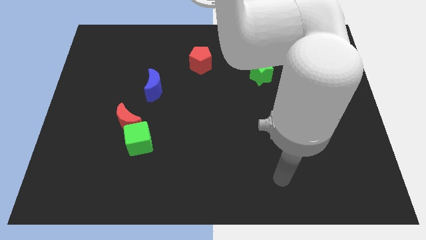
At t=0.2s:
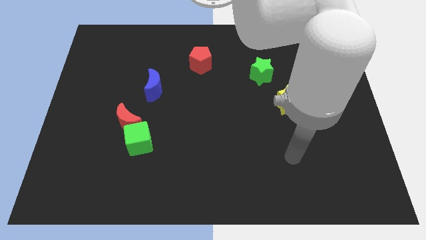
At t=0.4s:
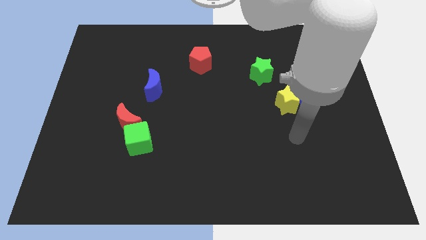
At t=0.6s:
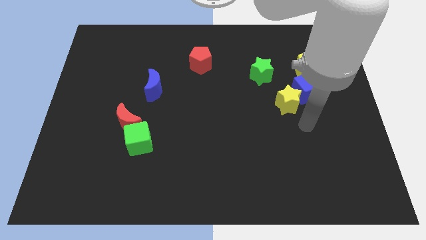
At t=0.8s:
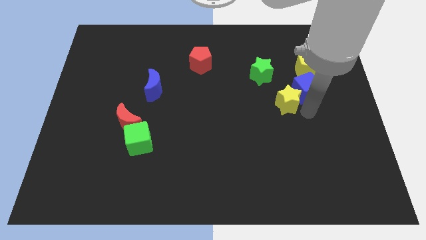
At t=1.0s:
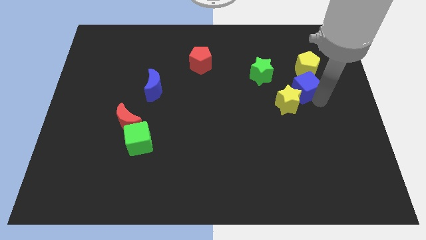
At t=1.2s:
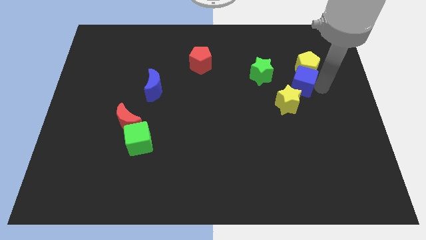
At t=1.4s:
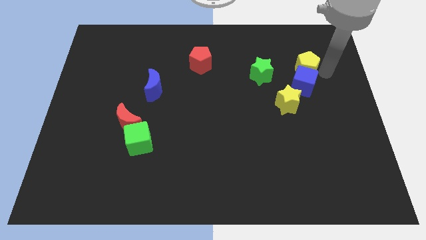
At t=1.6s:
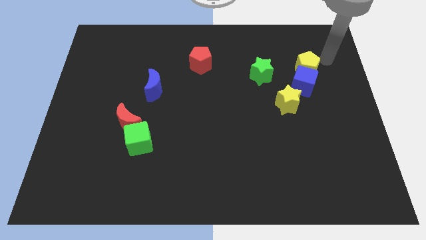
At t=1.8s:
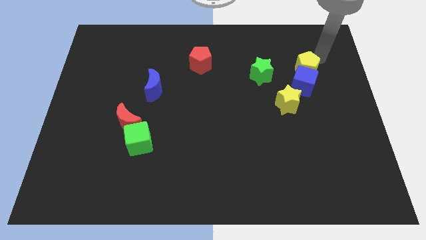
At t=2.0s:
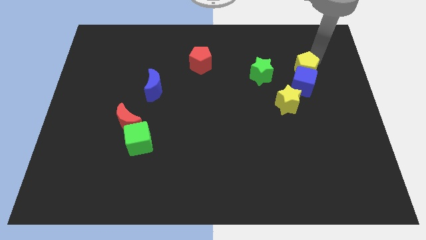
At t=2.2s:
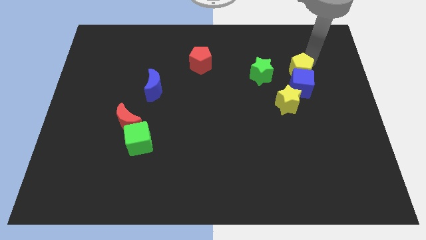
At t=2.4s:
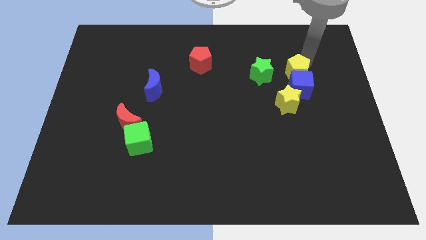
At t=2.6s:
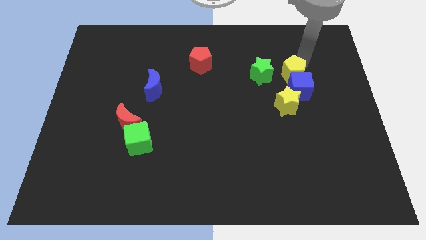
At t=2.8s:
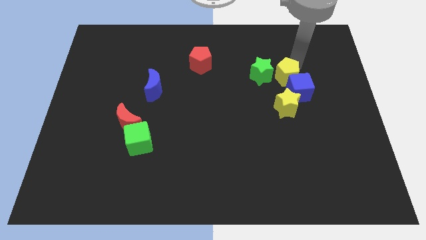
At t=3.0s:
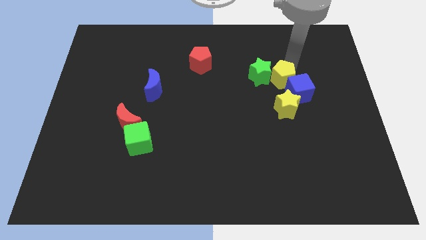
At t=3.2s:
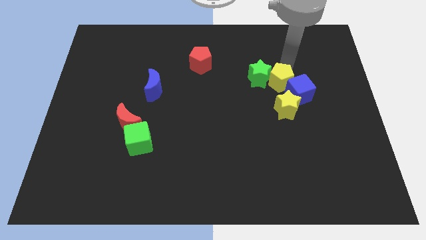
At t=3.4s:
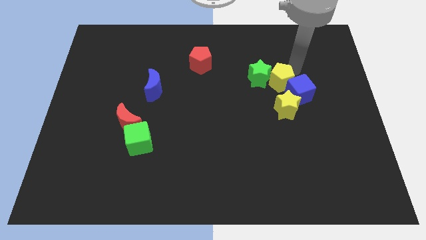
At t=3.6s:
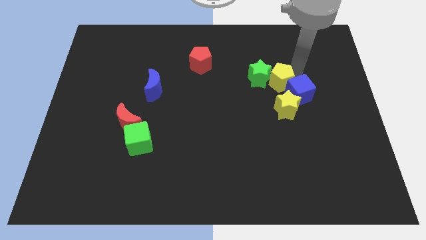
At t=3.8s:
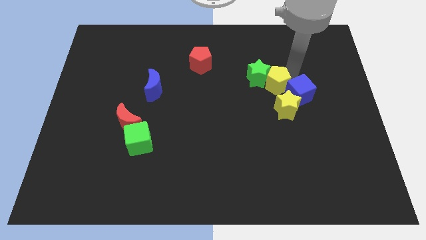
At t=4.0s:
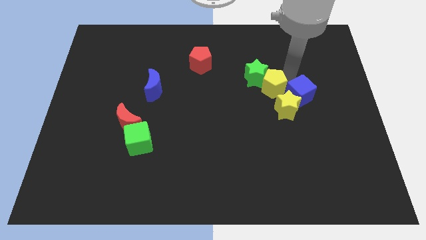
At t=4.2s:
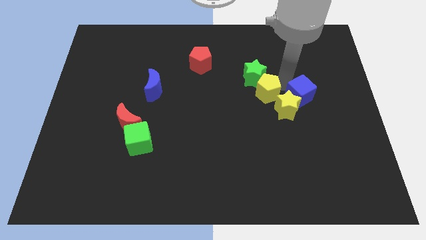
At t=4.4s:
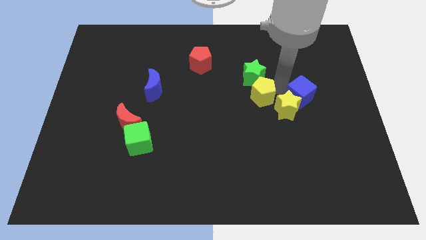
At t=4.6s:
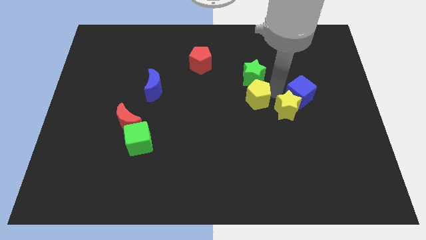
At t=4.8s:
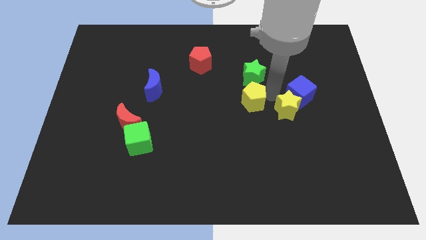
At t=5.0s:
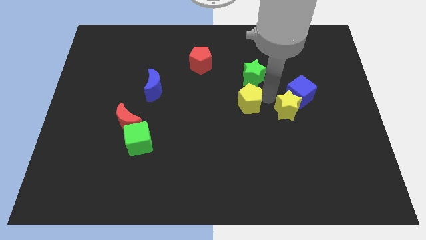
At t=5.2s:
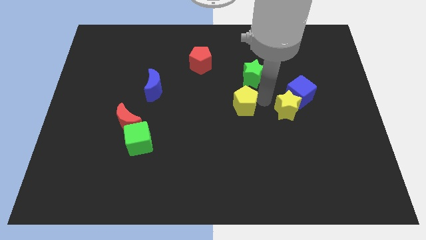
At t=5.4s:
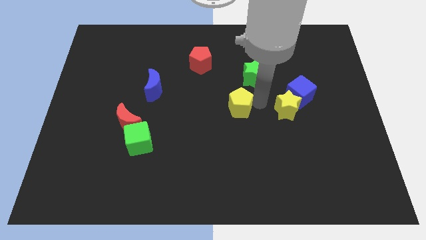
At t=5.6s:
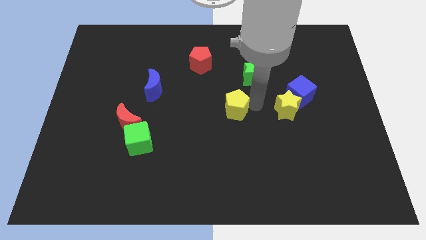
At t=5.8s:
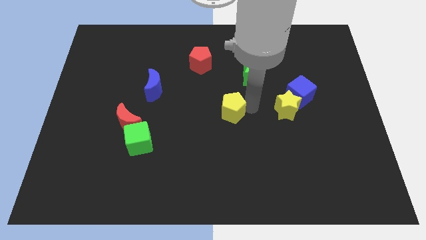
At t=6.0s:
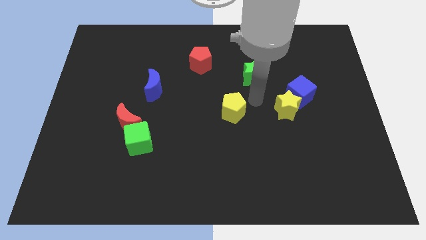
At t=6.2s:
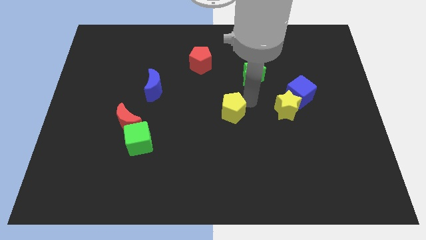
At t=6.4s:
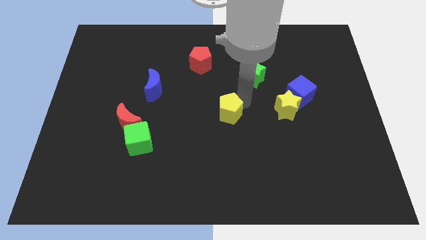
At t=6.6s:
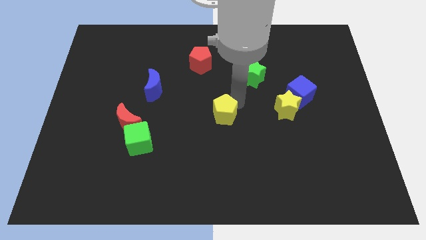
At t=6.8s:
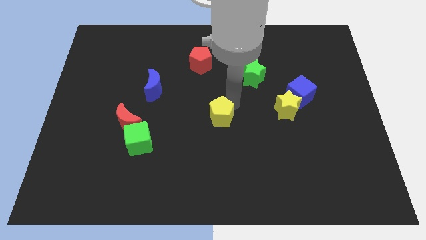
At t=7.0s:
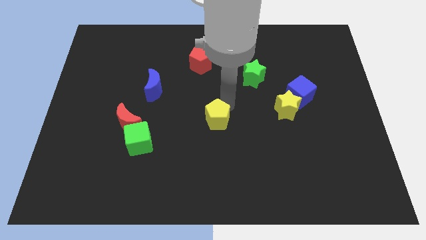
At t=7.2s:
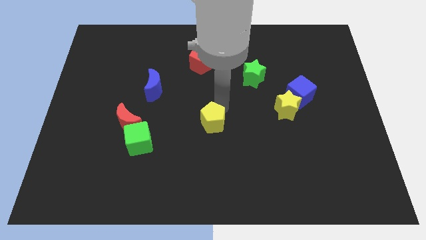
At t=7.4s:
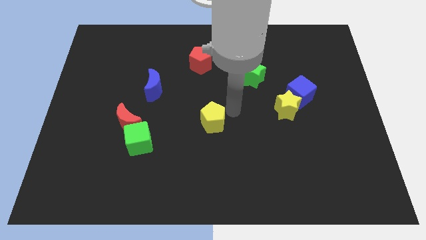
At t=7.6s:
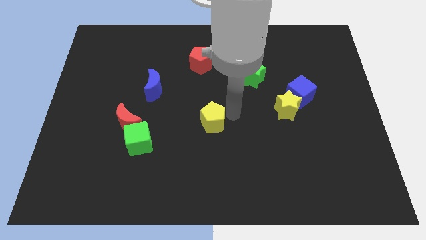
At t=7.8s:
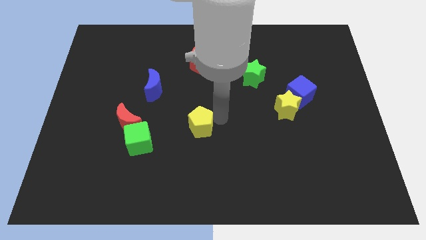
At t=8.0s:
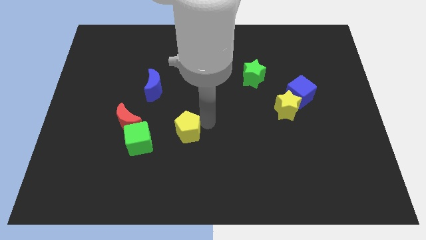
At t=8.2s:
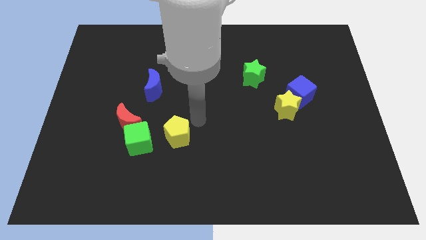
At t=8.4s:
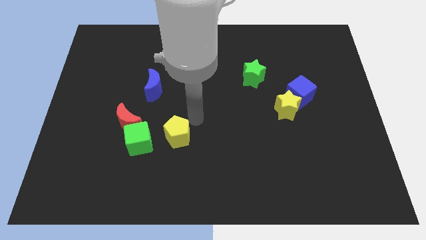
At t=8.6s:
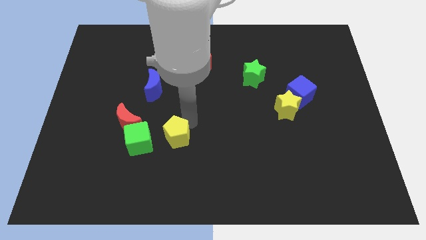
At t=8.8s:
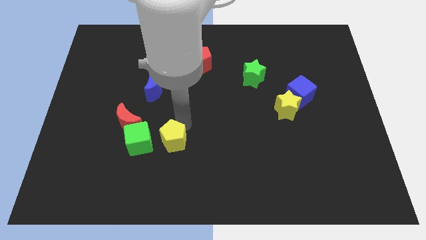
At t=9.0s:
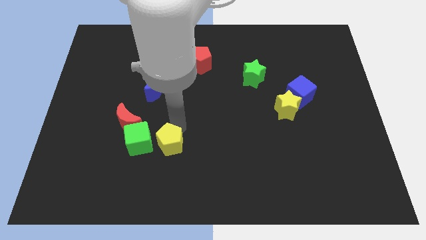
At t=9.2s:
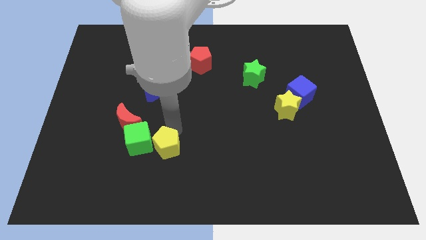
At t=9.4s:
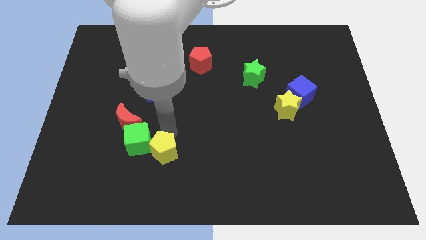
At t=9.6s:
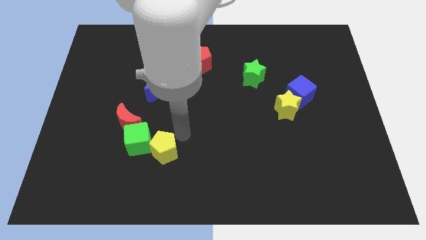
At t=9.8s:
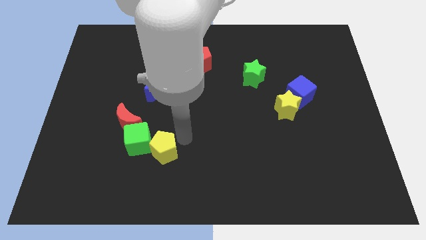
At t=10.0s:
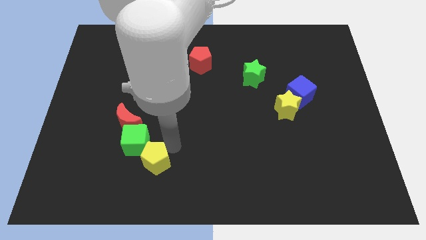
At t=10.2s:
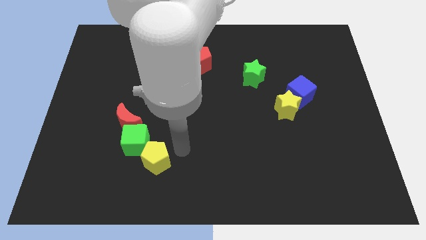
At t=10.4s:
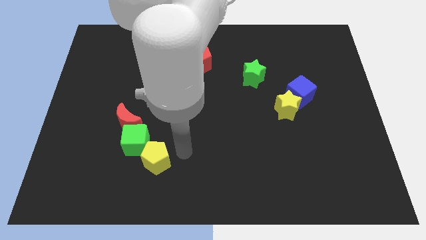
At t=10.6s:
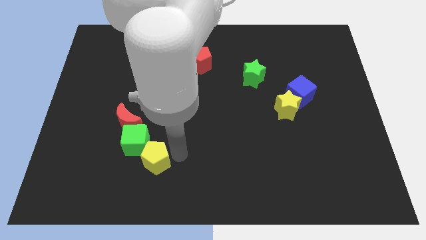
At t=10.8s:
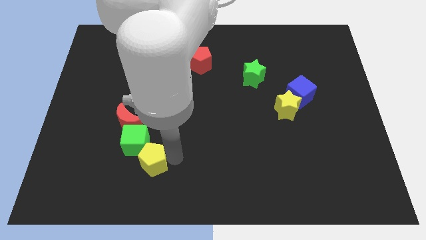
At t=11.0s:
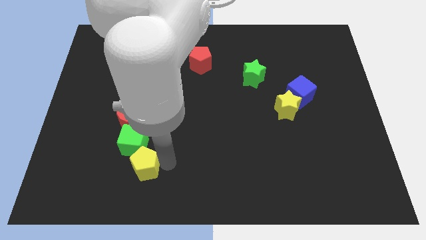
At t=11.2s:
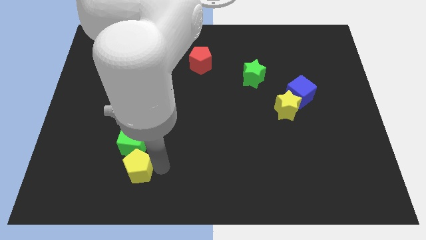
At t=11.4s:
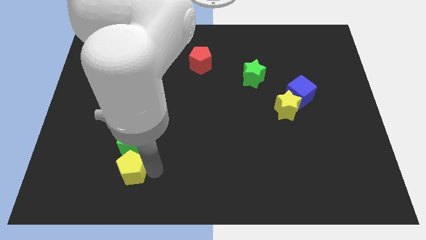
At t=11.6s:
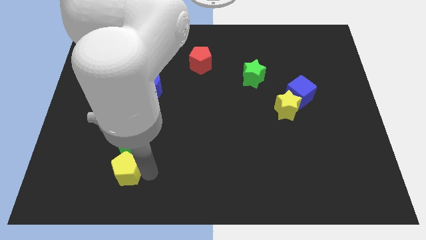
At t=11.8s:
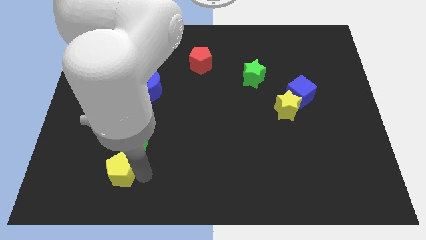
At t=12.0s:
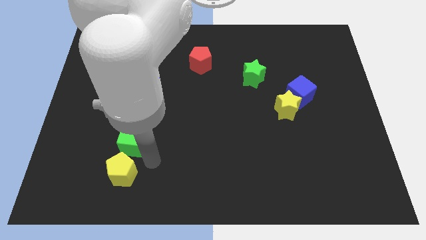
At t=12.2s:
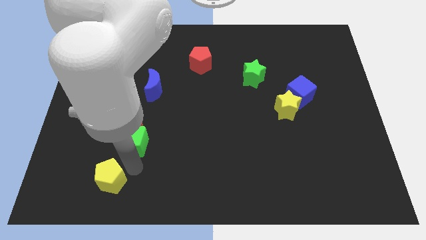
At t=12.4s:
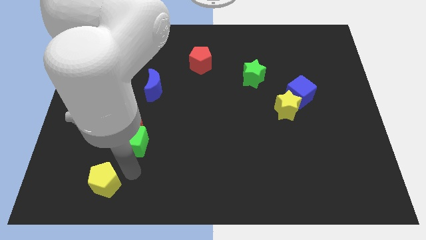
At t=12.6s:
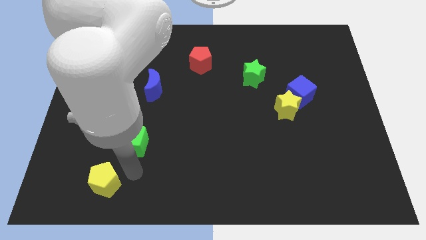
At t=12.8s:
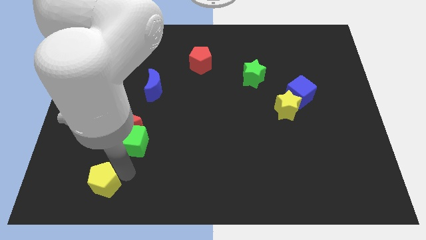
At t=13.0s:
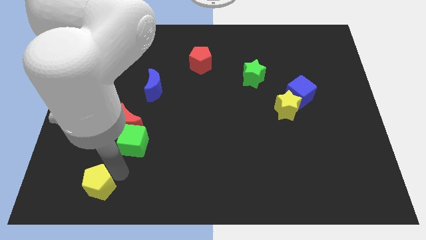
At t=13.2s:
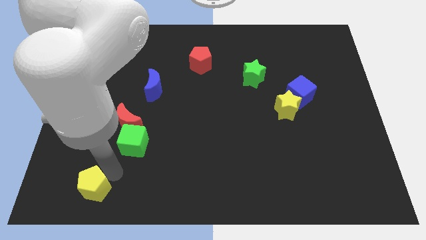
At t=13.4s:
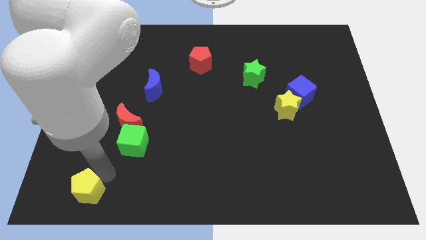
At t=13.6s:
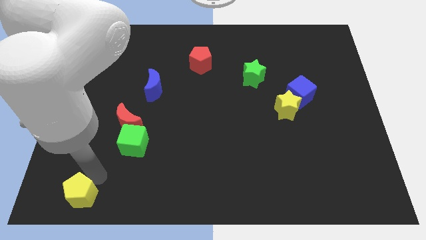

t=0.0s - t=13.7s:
put the yellow pentagon to the bottom left of the board
